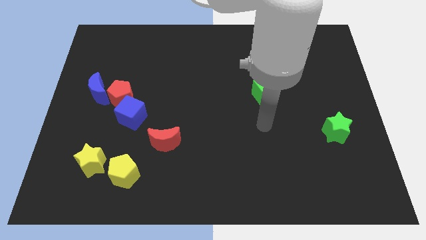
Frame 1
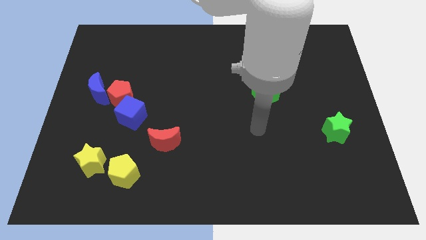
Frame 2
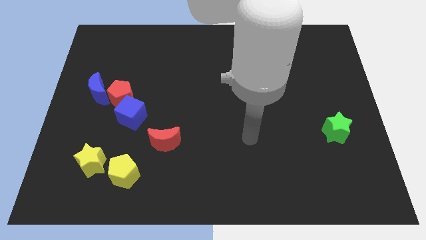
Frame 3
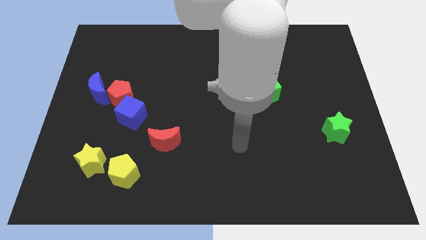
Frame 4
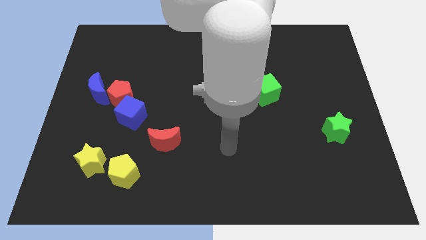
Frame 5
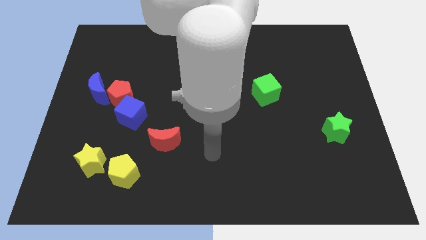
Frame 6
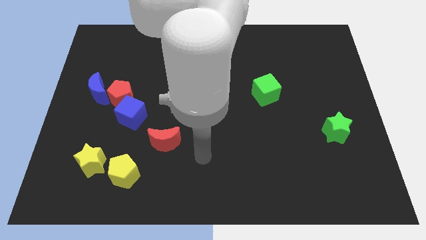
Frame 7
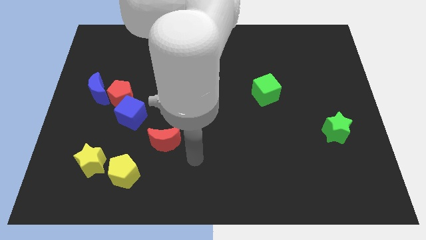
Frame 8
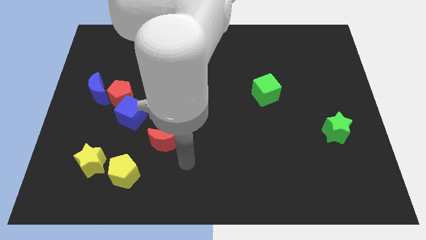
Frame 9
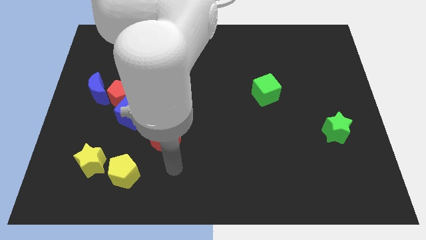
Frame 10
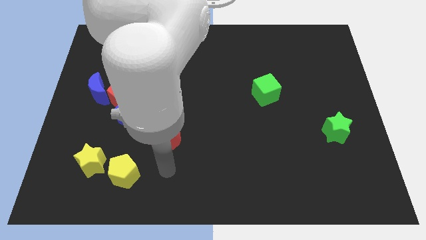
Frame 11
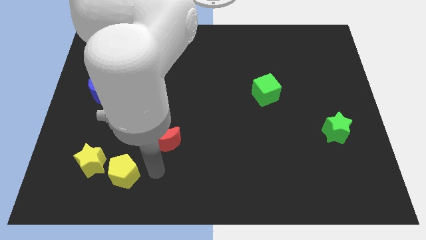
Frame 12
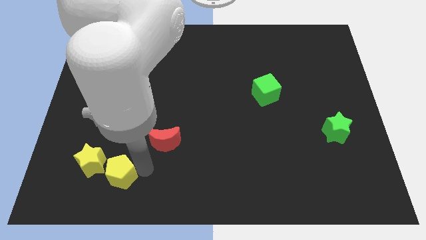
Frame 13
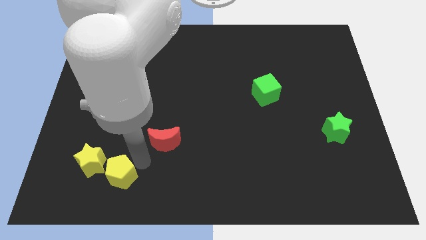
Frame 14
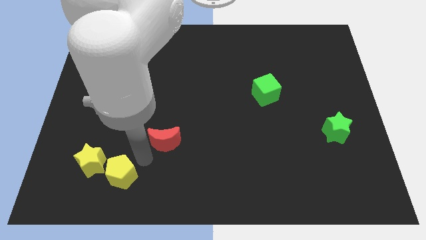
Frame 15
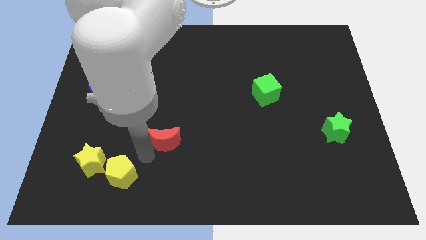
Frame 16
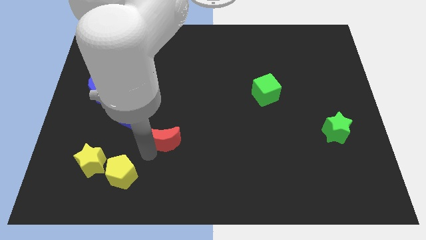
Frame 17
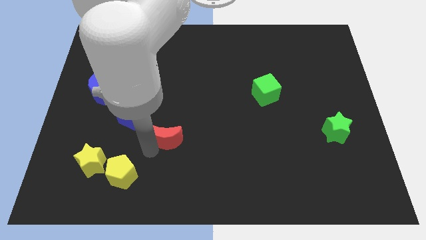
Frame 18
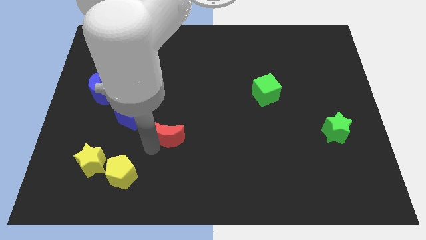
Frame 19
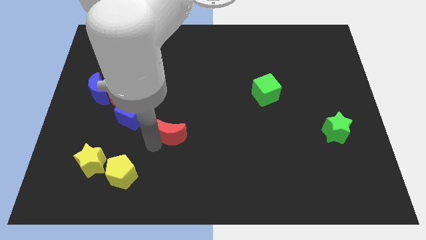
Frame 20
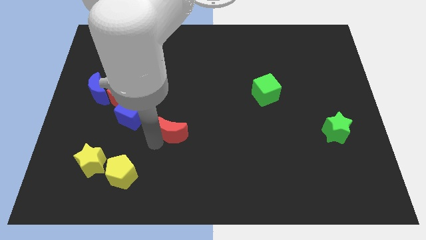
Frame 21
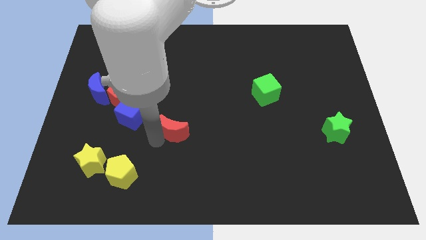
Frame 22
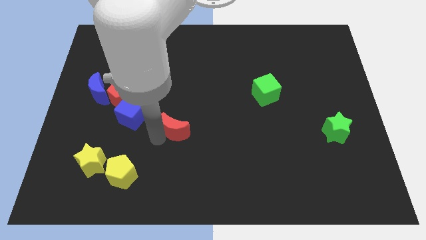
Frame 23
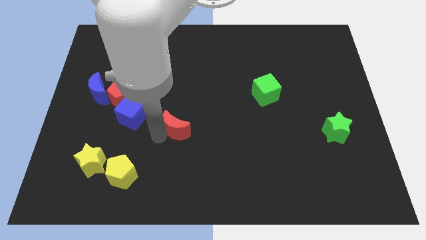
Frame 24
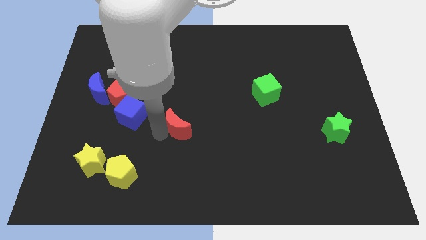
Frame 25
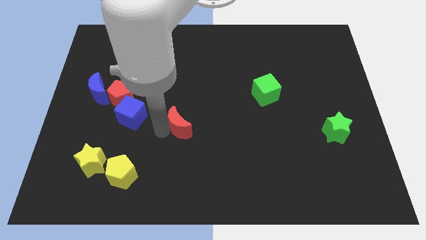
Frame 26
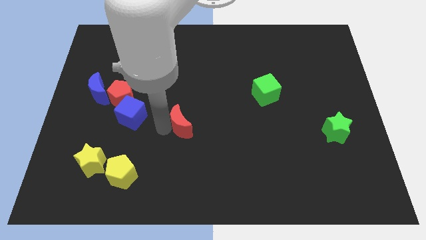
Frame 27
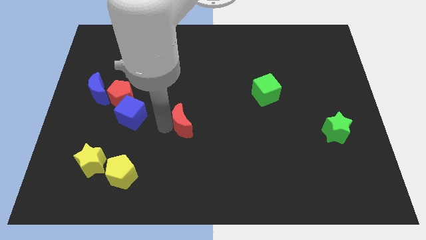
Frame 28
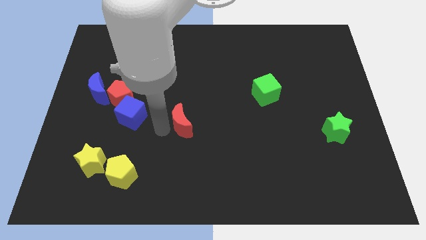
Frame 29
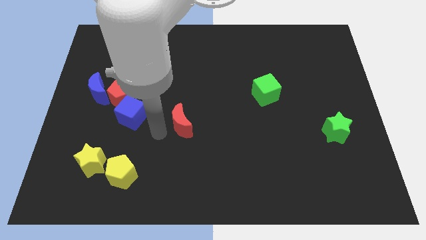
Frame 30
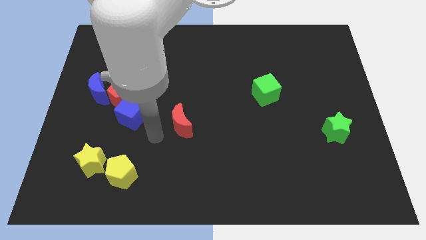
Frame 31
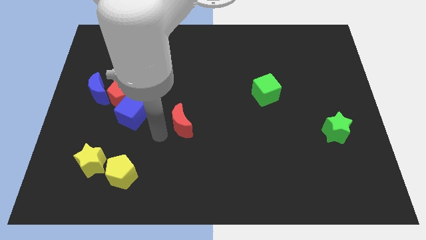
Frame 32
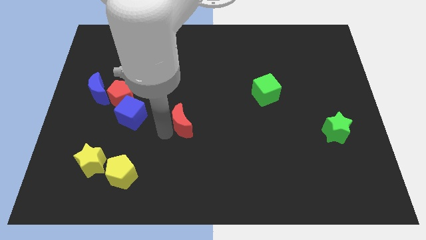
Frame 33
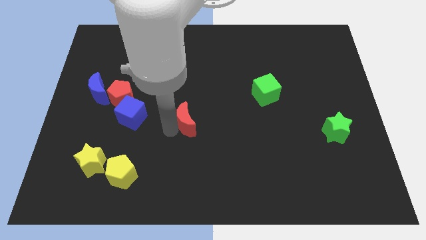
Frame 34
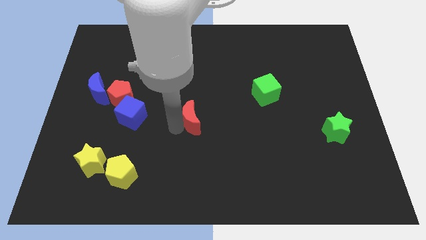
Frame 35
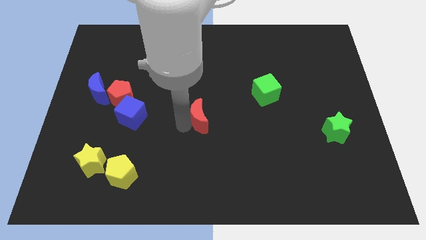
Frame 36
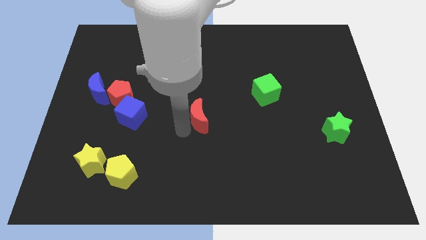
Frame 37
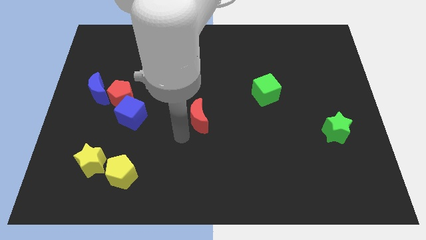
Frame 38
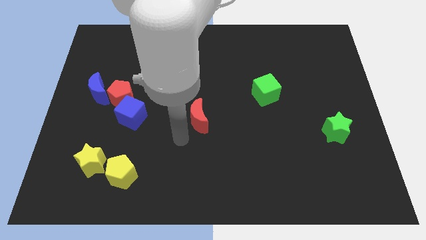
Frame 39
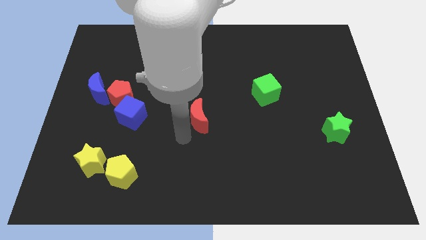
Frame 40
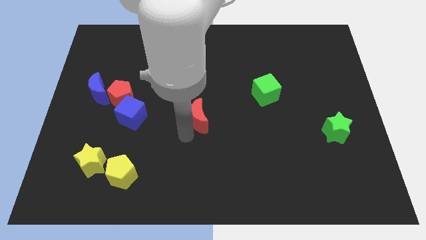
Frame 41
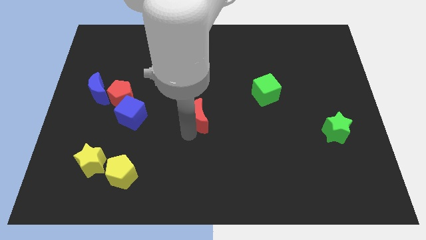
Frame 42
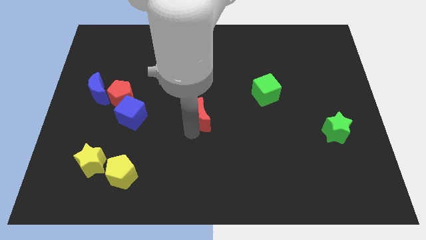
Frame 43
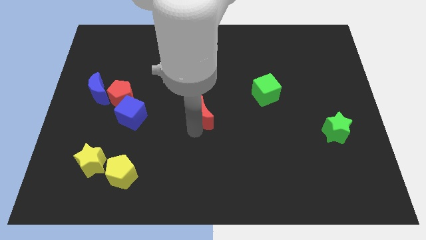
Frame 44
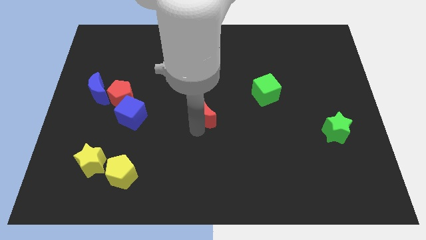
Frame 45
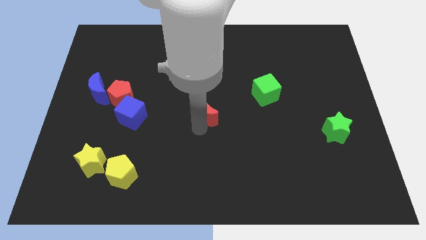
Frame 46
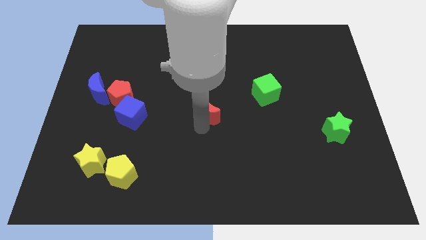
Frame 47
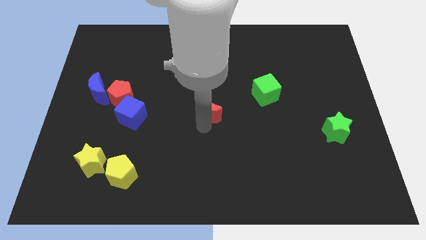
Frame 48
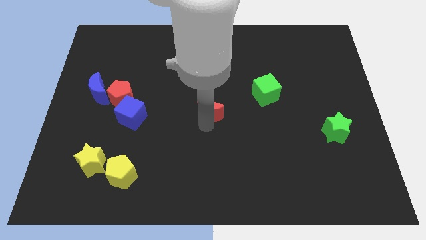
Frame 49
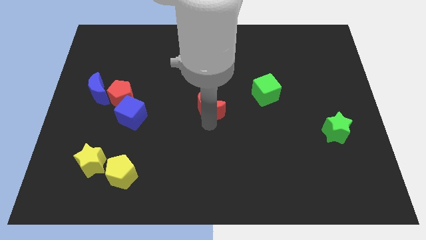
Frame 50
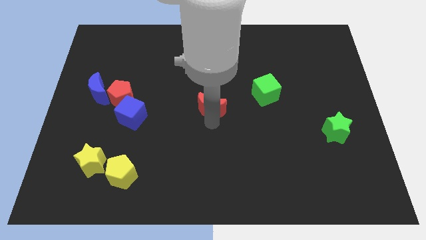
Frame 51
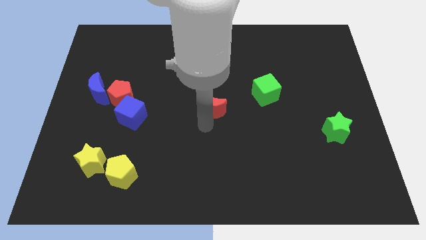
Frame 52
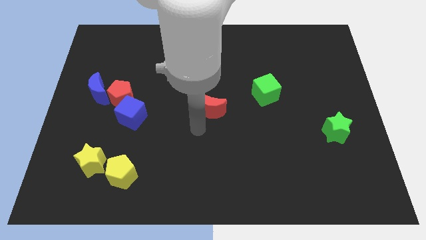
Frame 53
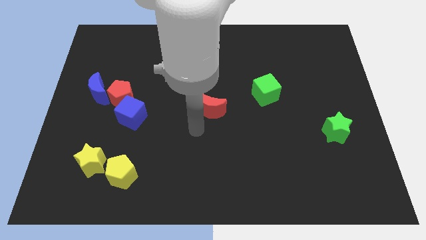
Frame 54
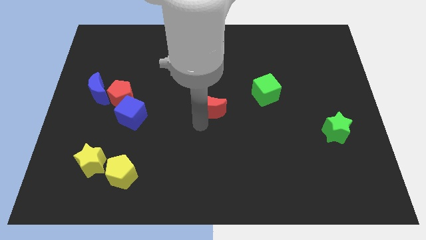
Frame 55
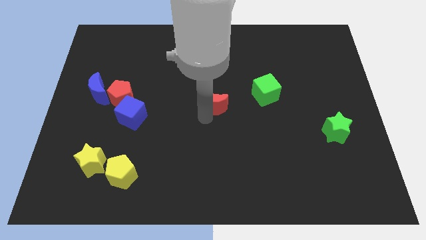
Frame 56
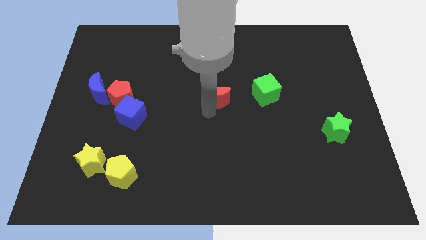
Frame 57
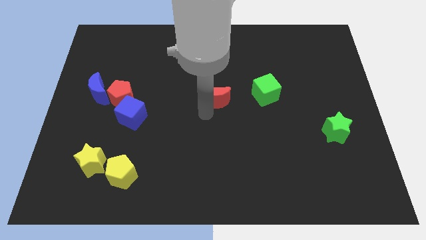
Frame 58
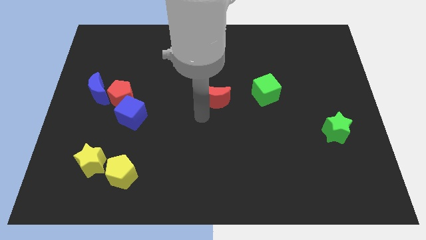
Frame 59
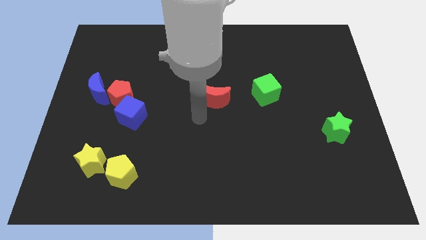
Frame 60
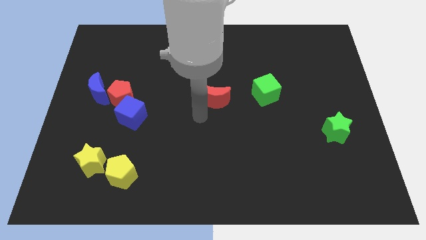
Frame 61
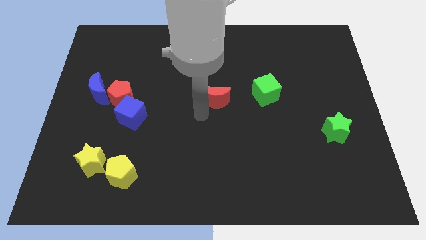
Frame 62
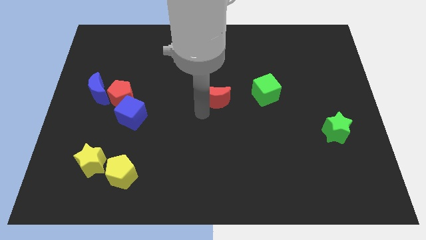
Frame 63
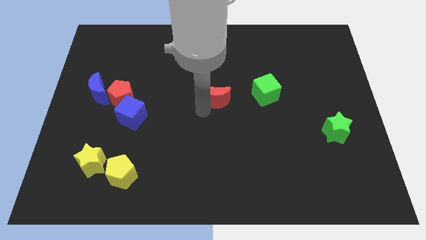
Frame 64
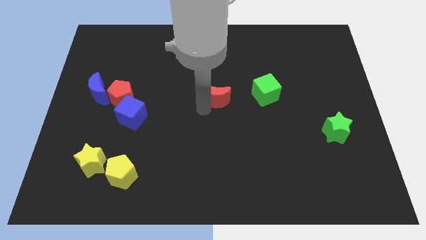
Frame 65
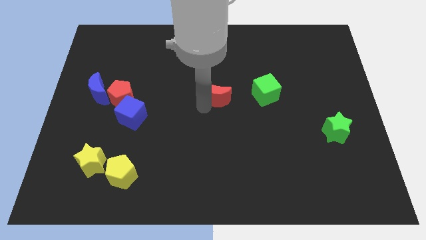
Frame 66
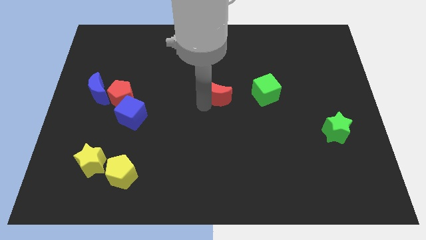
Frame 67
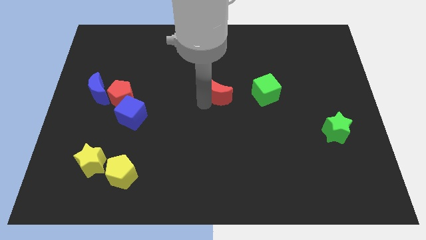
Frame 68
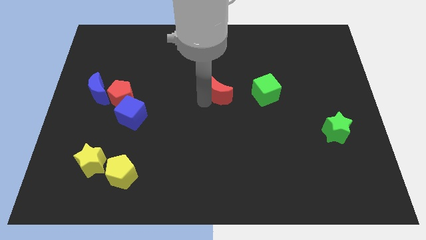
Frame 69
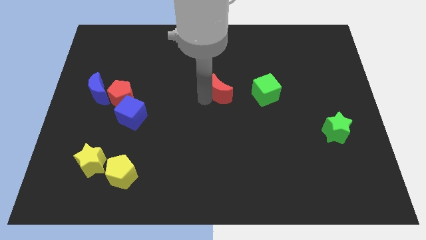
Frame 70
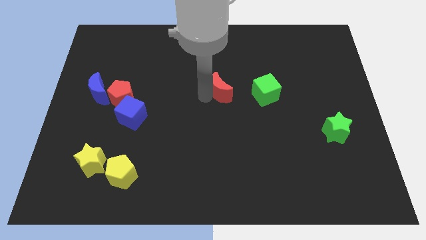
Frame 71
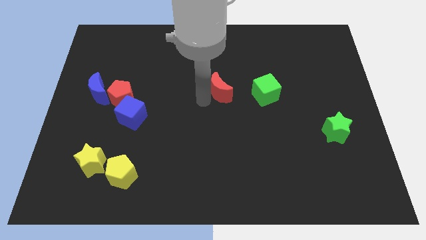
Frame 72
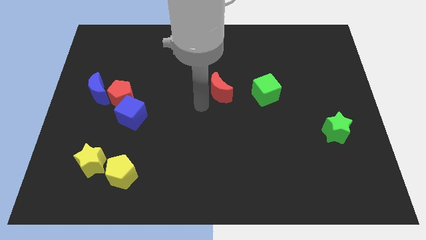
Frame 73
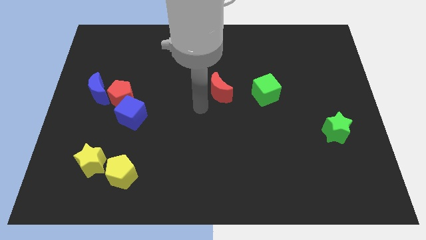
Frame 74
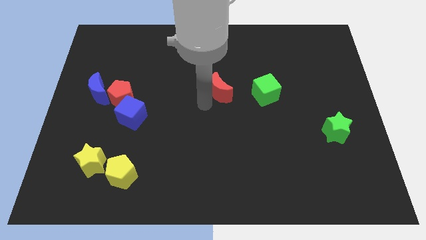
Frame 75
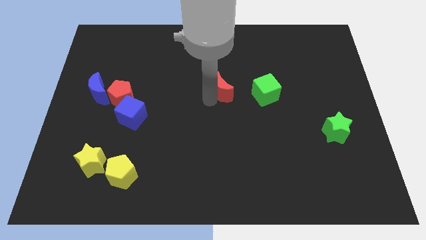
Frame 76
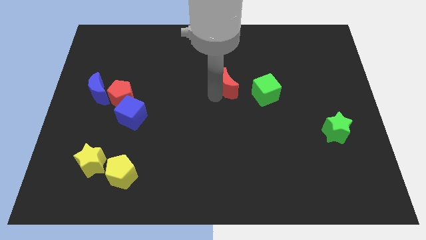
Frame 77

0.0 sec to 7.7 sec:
push the red moon up and to the right

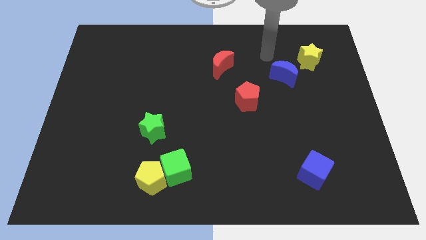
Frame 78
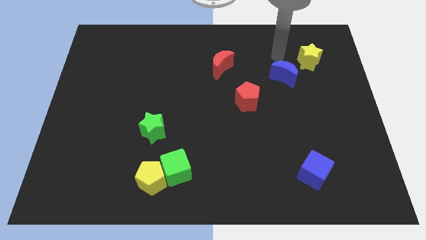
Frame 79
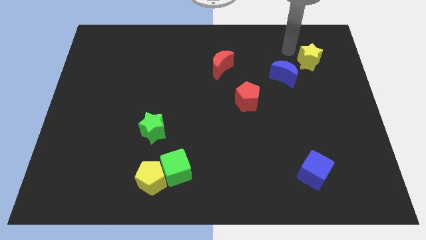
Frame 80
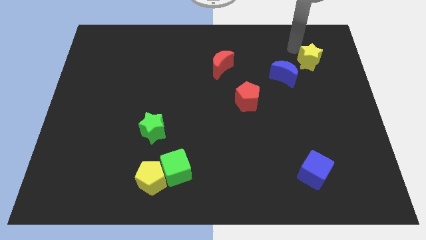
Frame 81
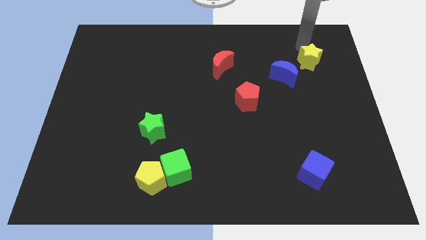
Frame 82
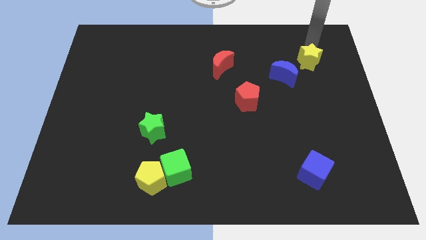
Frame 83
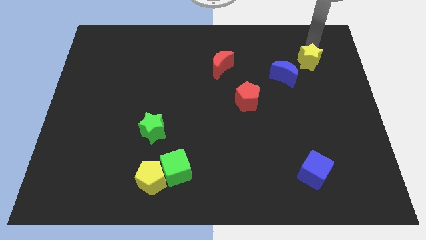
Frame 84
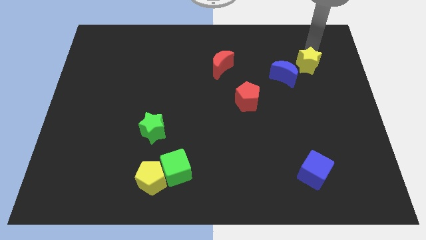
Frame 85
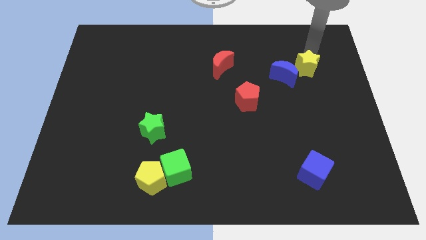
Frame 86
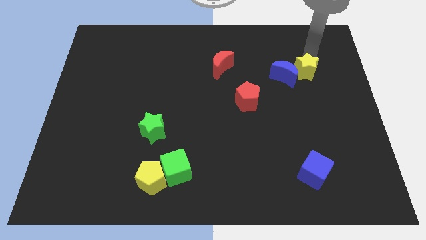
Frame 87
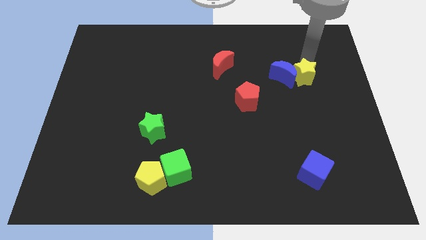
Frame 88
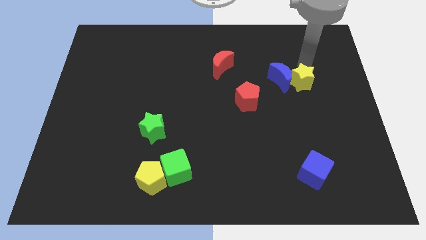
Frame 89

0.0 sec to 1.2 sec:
move the yellow star a bit down
